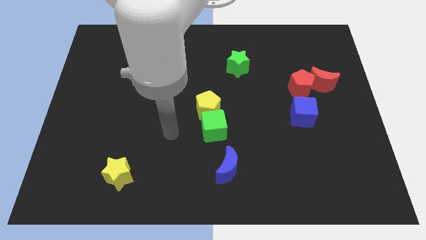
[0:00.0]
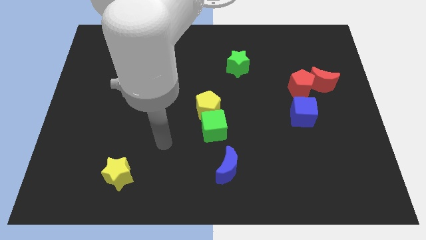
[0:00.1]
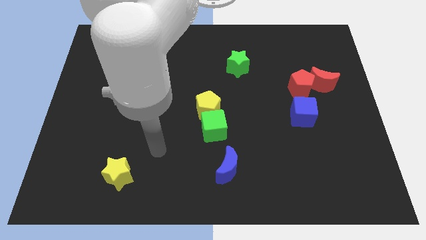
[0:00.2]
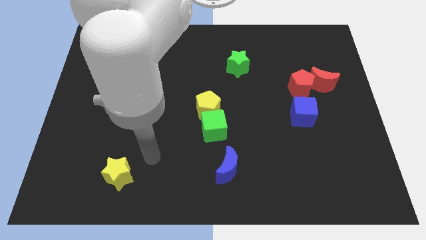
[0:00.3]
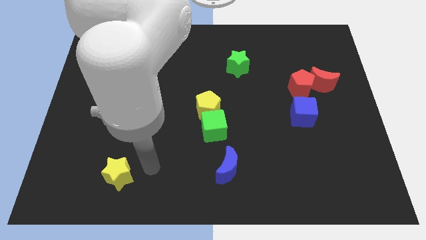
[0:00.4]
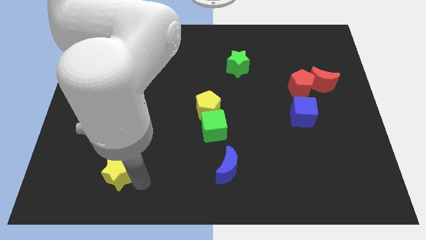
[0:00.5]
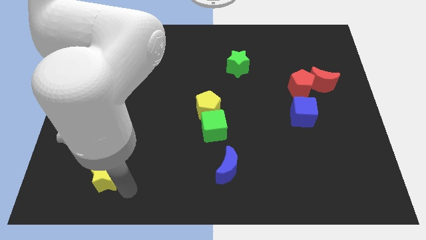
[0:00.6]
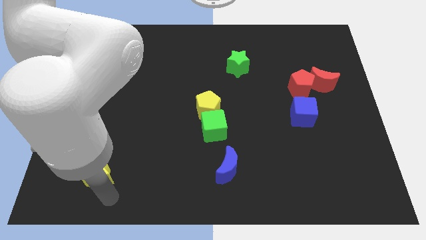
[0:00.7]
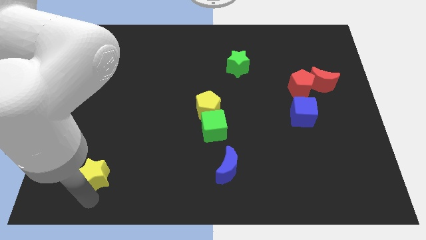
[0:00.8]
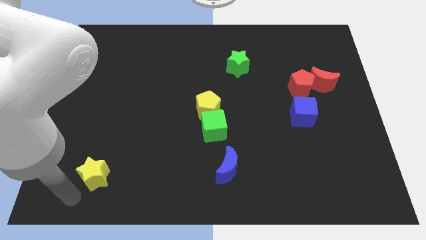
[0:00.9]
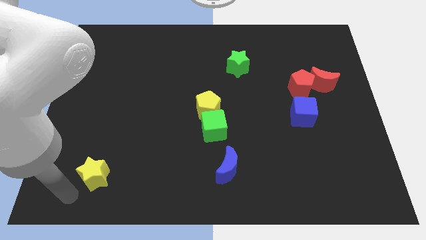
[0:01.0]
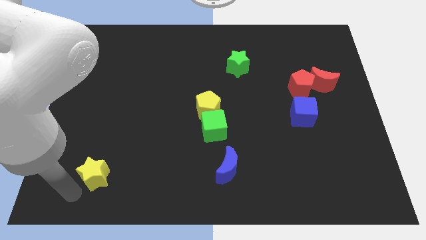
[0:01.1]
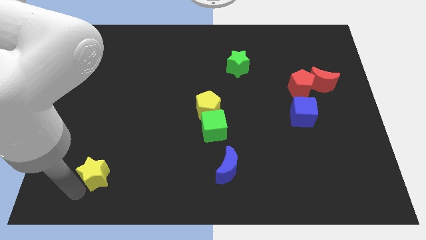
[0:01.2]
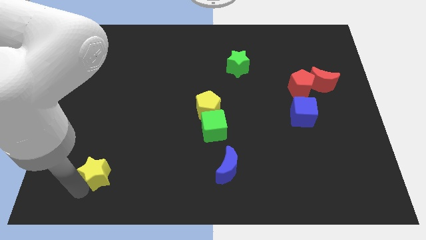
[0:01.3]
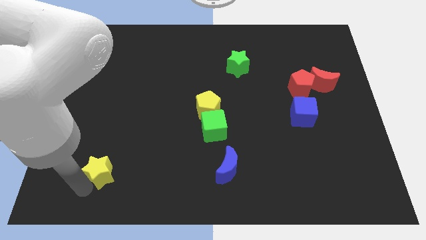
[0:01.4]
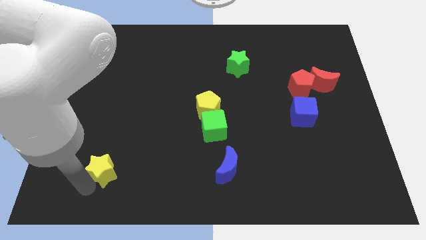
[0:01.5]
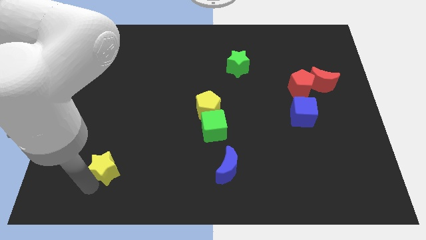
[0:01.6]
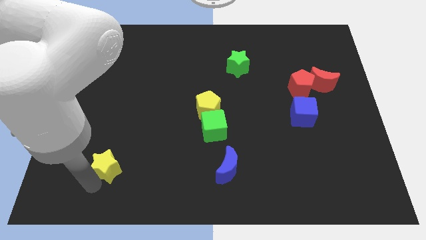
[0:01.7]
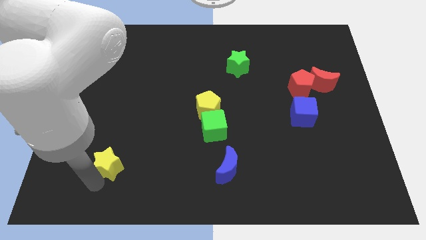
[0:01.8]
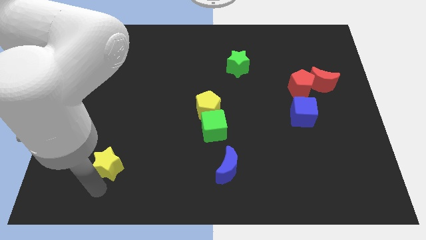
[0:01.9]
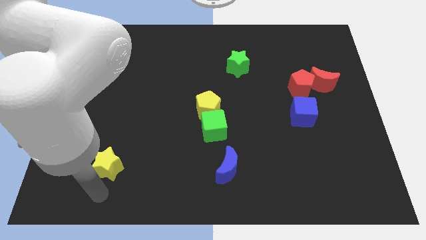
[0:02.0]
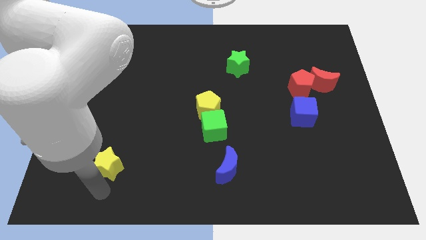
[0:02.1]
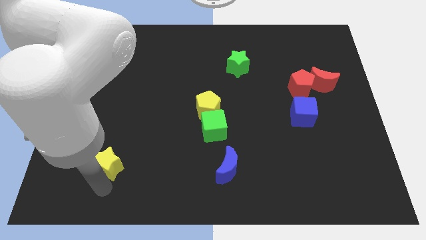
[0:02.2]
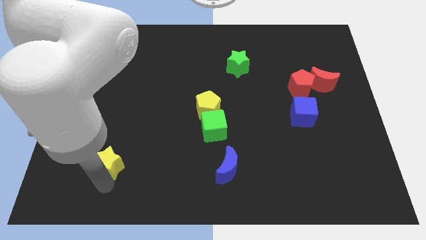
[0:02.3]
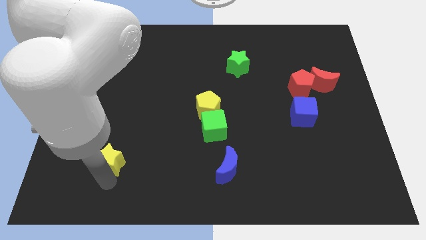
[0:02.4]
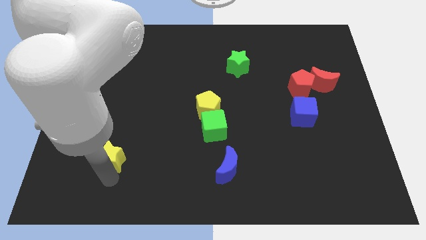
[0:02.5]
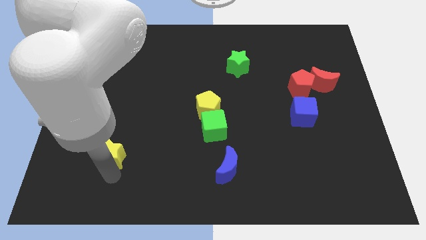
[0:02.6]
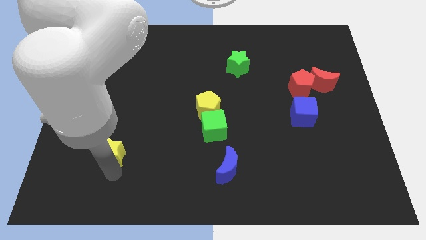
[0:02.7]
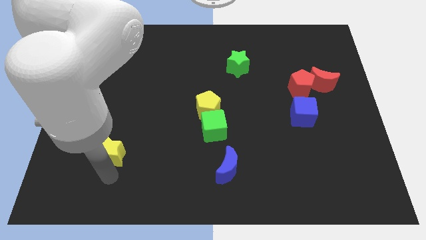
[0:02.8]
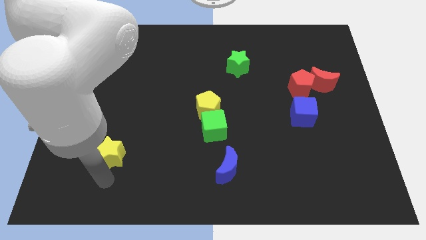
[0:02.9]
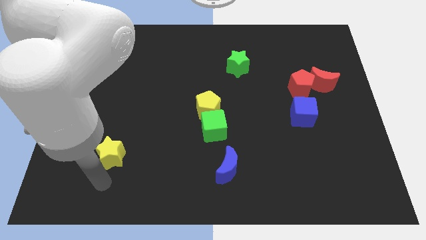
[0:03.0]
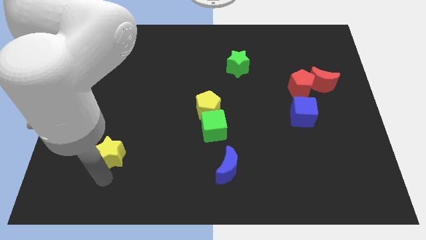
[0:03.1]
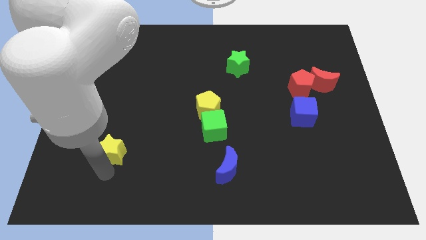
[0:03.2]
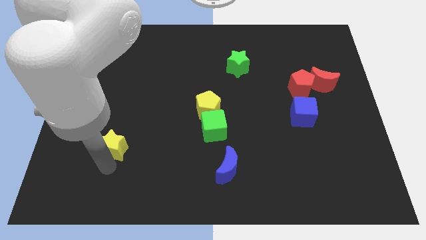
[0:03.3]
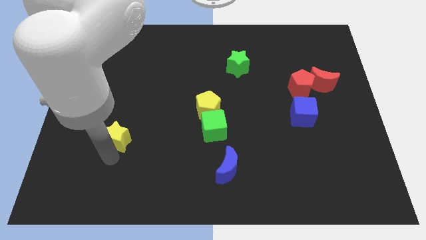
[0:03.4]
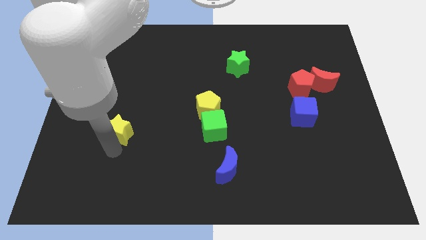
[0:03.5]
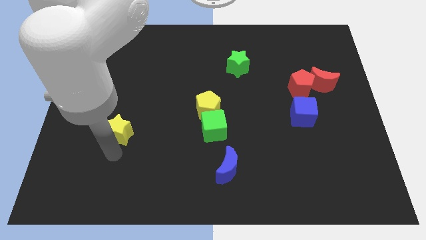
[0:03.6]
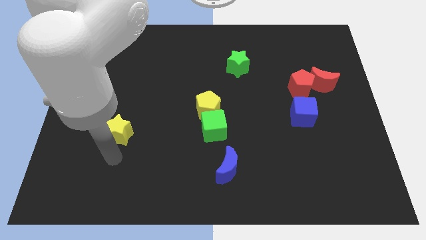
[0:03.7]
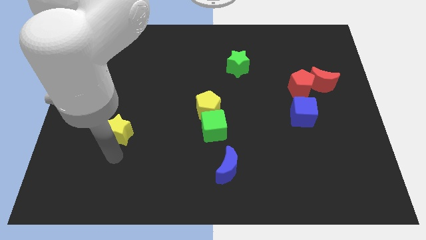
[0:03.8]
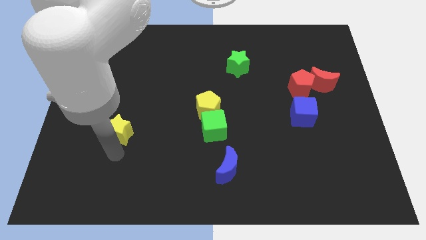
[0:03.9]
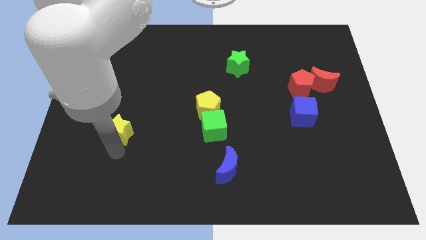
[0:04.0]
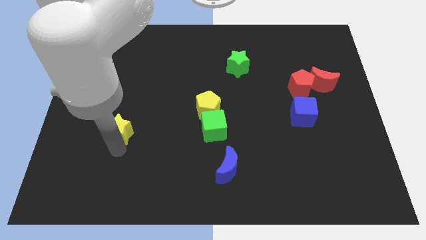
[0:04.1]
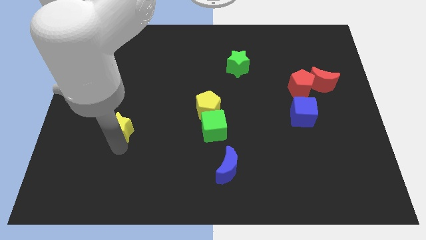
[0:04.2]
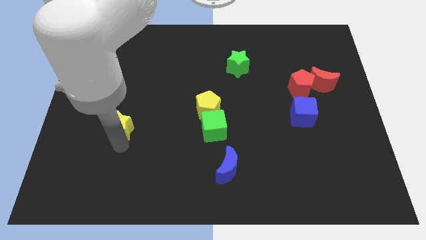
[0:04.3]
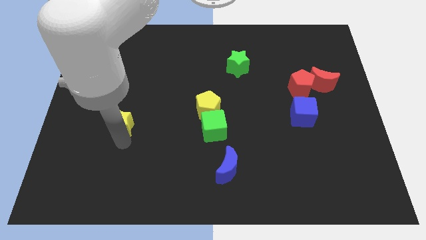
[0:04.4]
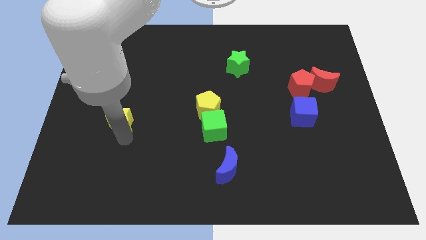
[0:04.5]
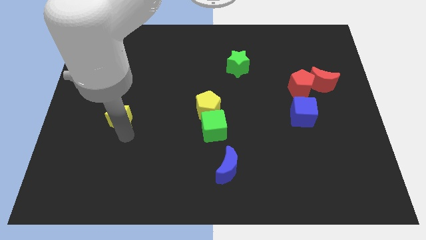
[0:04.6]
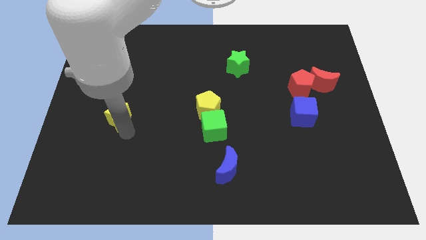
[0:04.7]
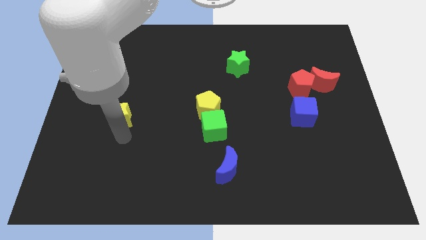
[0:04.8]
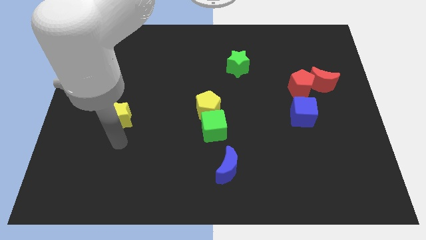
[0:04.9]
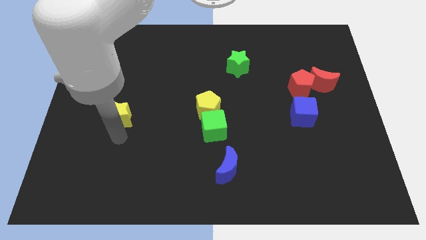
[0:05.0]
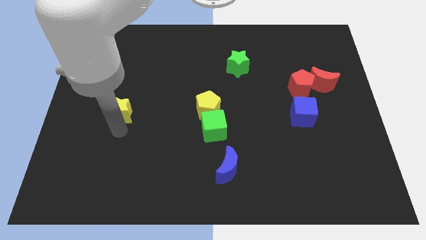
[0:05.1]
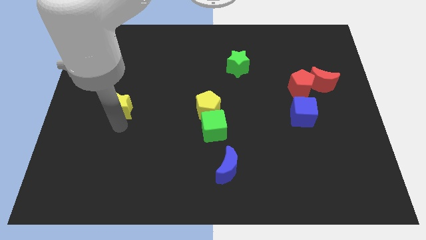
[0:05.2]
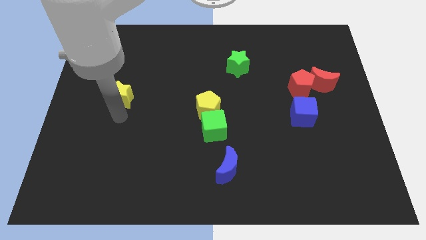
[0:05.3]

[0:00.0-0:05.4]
slide the yellow star up

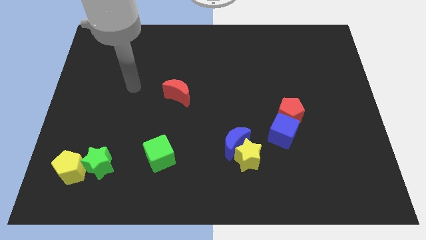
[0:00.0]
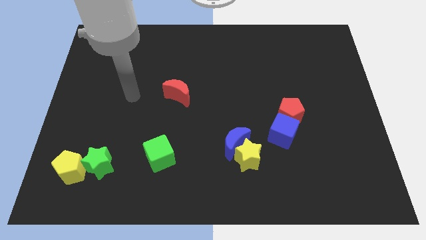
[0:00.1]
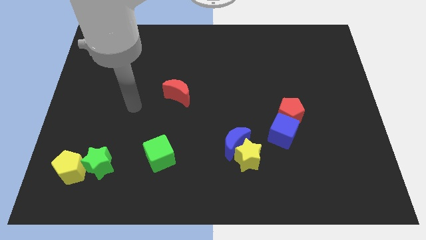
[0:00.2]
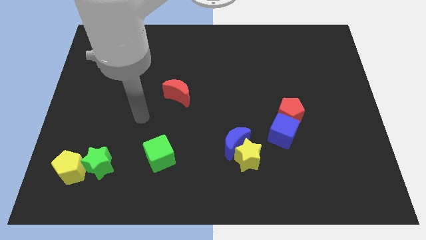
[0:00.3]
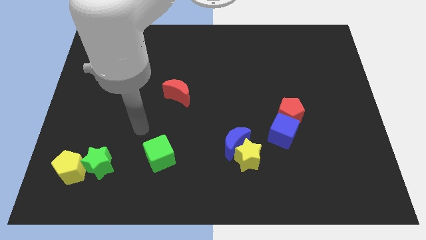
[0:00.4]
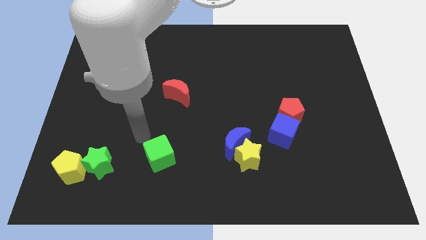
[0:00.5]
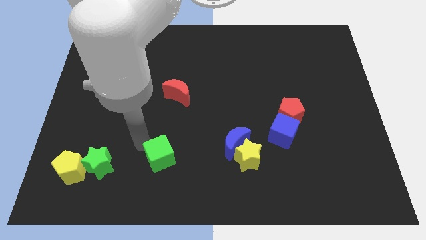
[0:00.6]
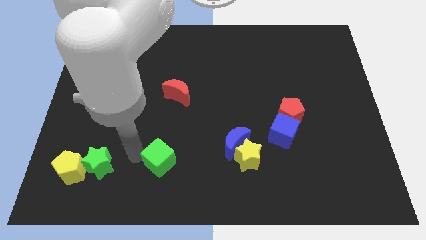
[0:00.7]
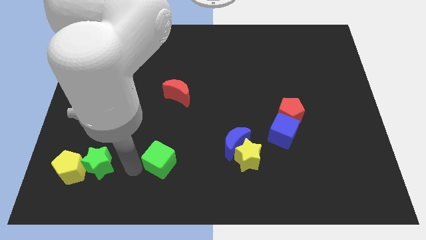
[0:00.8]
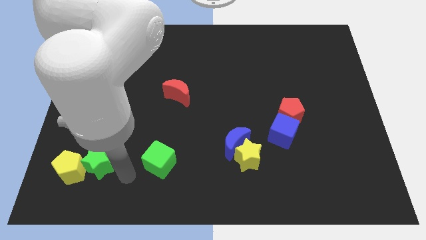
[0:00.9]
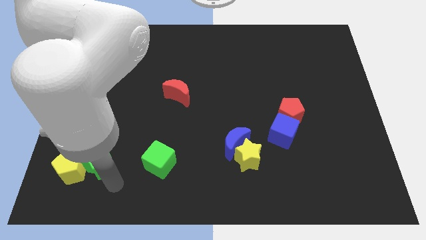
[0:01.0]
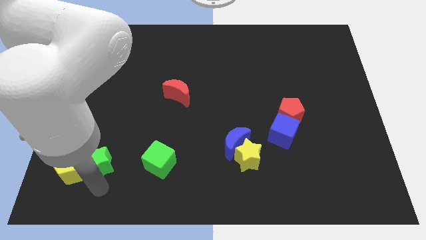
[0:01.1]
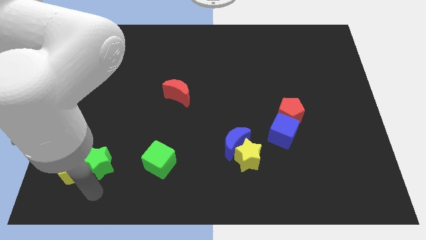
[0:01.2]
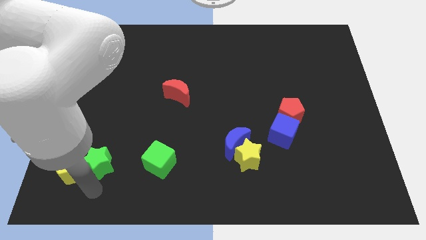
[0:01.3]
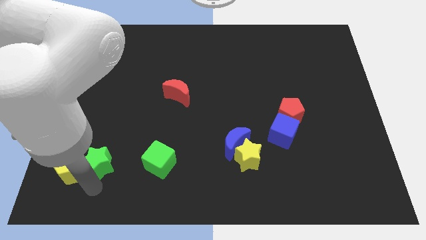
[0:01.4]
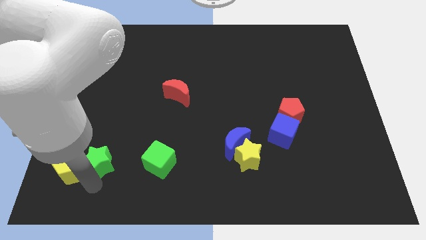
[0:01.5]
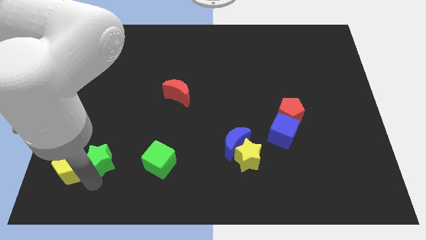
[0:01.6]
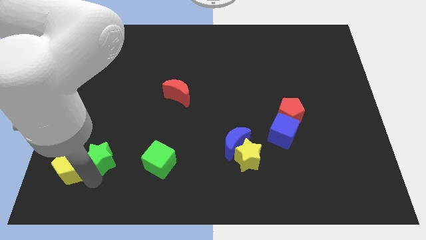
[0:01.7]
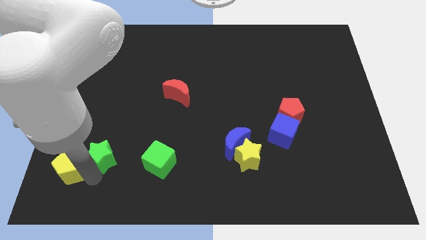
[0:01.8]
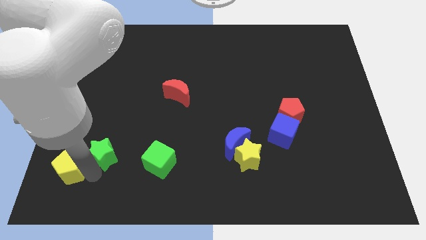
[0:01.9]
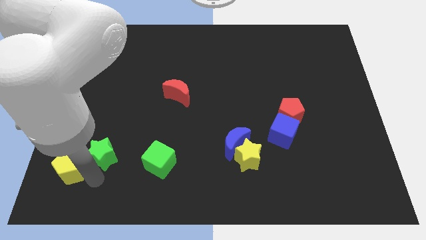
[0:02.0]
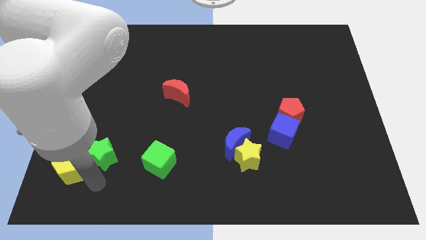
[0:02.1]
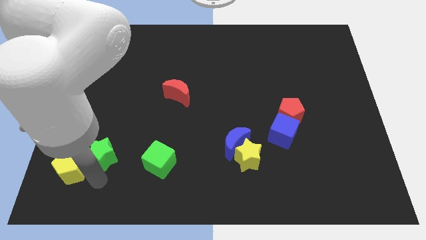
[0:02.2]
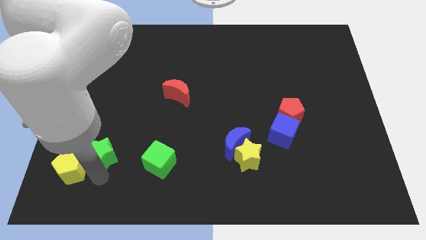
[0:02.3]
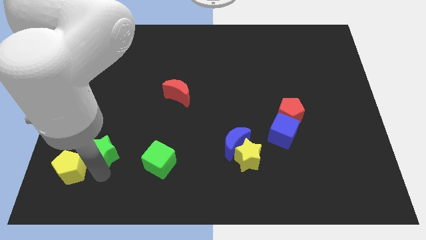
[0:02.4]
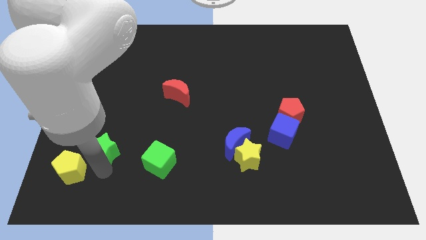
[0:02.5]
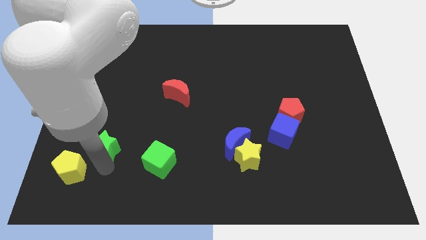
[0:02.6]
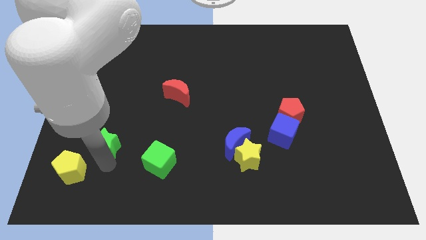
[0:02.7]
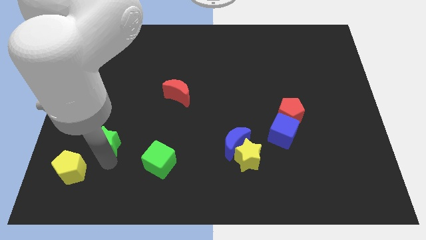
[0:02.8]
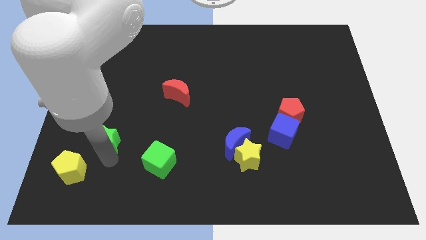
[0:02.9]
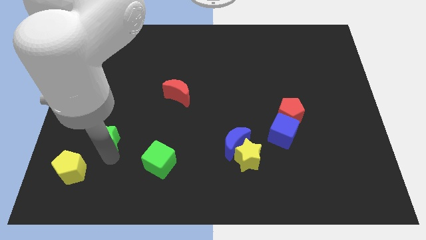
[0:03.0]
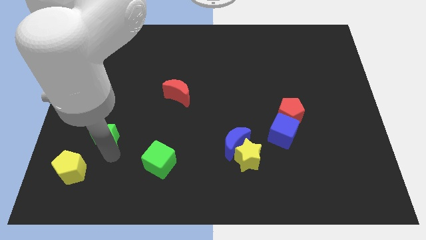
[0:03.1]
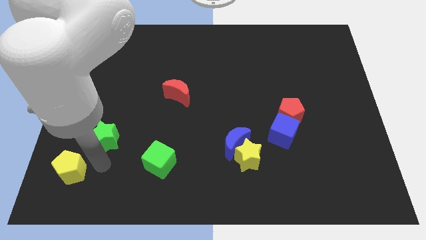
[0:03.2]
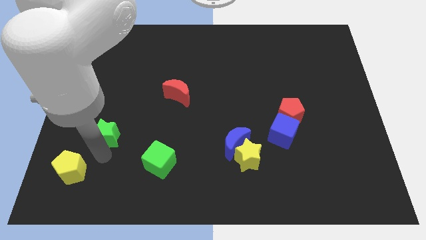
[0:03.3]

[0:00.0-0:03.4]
slightly move the green star up
